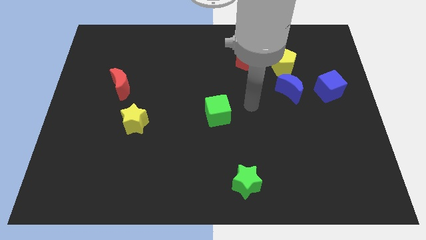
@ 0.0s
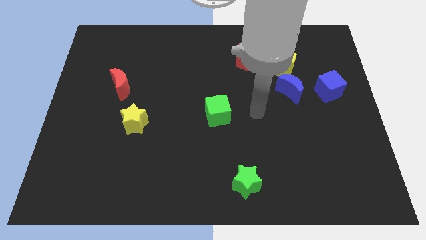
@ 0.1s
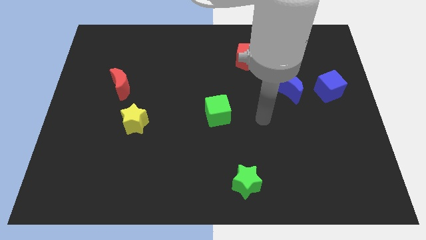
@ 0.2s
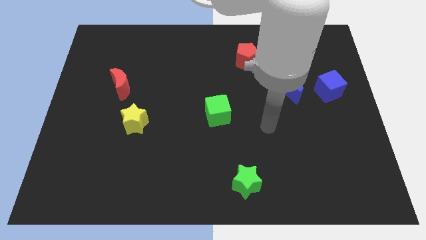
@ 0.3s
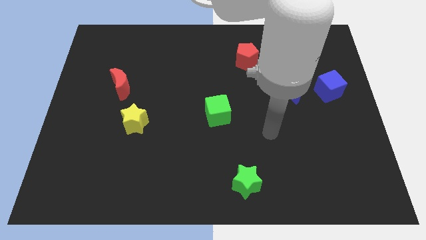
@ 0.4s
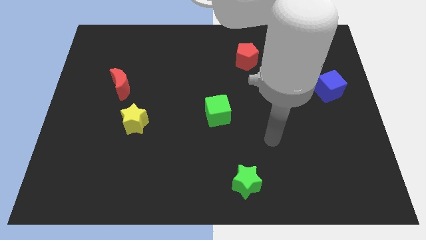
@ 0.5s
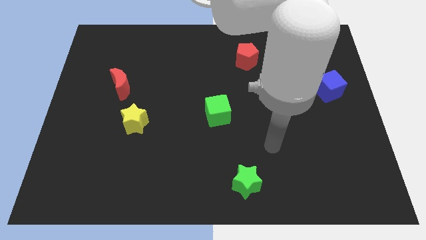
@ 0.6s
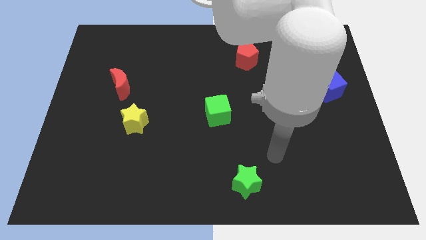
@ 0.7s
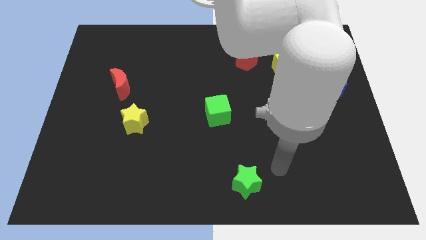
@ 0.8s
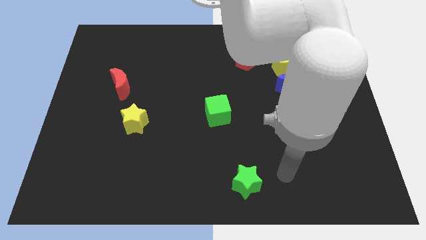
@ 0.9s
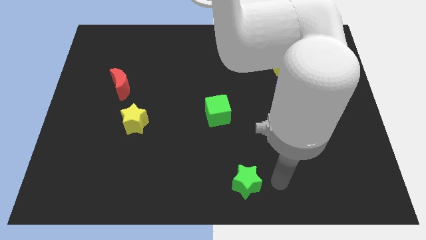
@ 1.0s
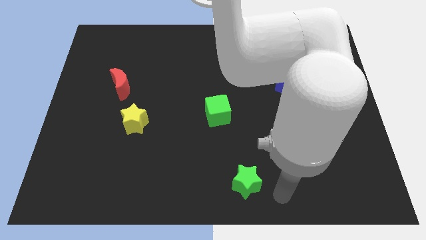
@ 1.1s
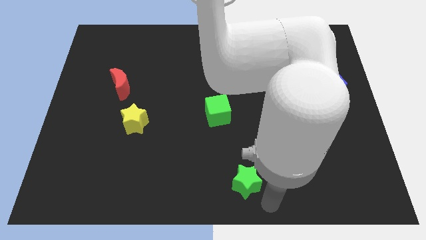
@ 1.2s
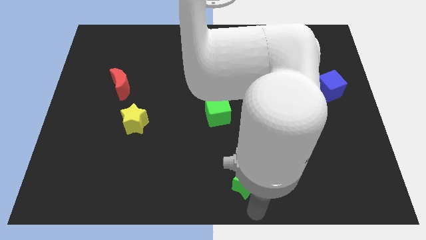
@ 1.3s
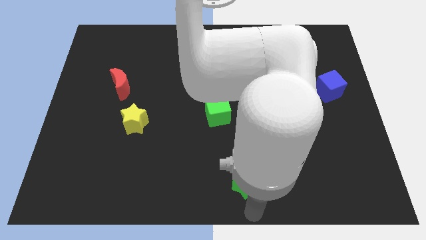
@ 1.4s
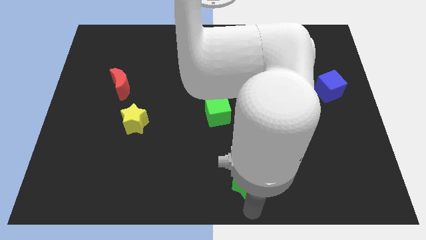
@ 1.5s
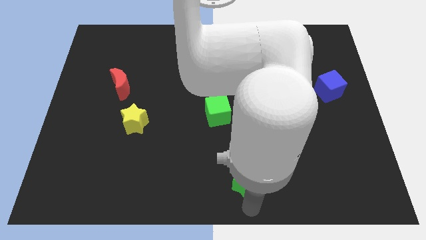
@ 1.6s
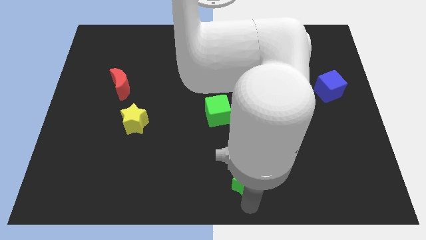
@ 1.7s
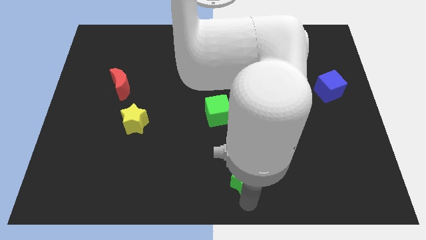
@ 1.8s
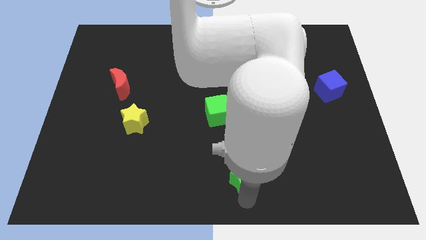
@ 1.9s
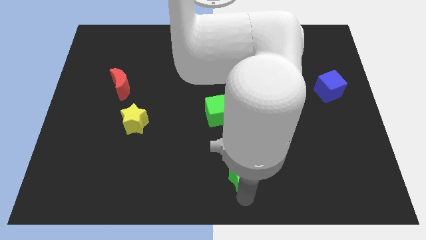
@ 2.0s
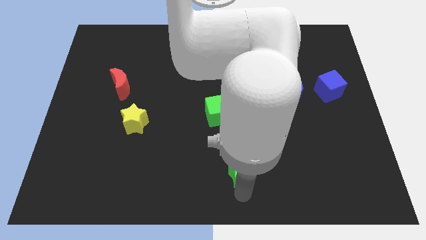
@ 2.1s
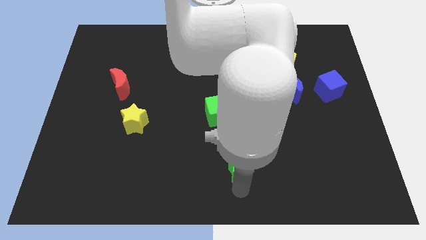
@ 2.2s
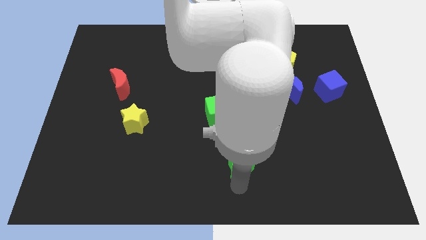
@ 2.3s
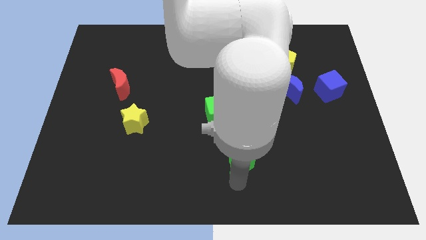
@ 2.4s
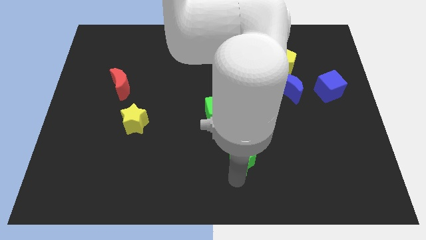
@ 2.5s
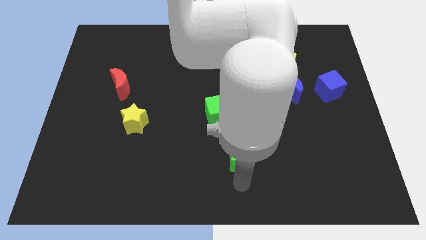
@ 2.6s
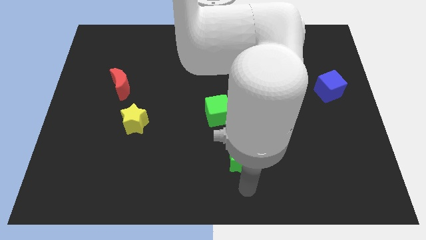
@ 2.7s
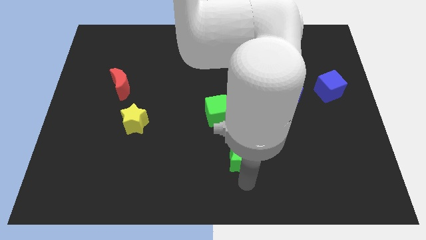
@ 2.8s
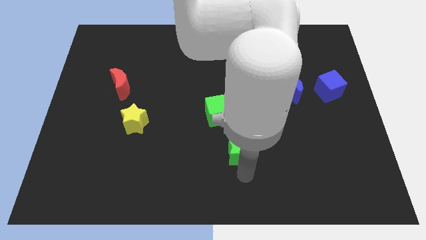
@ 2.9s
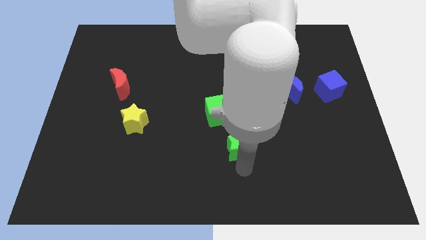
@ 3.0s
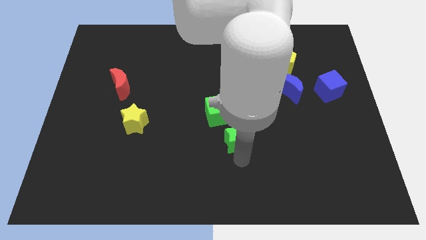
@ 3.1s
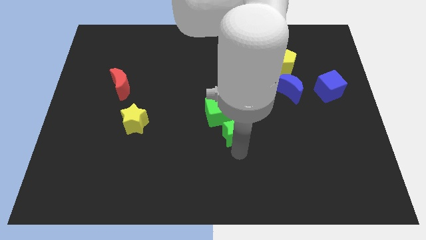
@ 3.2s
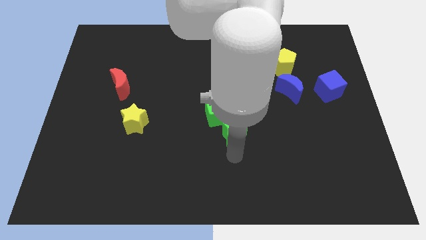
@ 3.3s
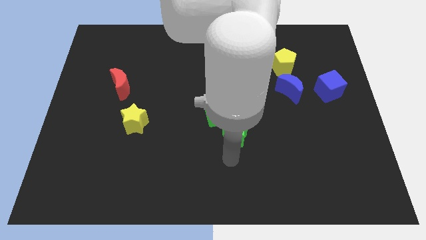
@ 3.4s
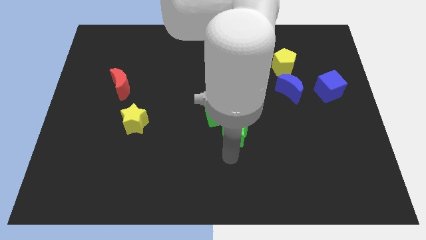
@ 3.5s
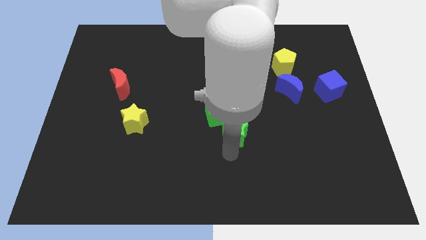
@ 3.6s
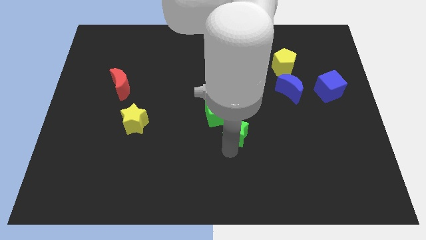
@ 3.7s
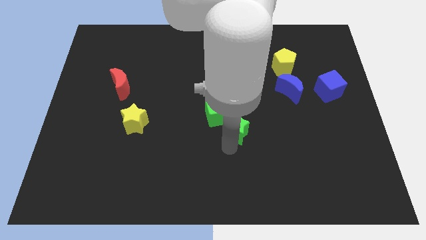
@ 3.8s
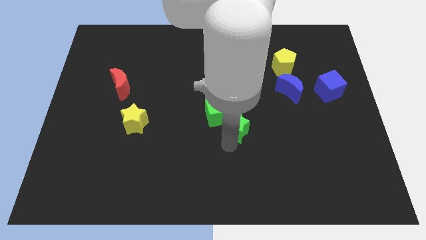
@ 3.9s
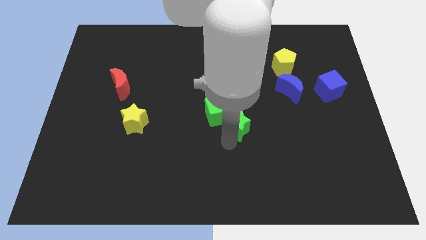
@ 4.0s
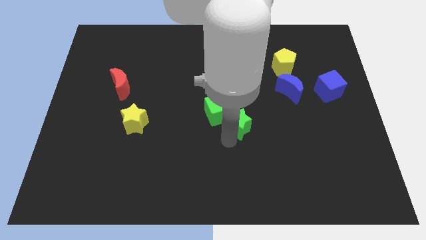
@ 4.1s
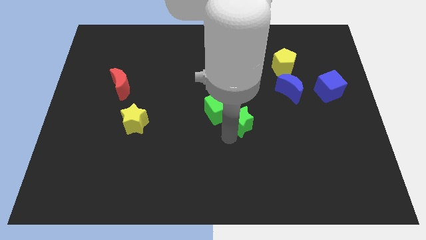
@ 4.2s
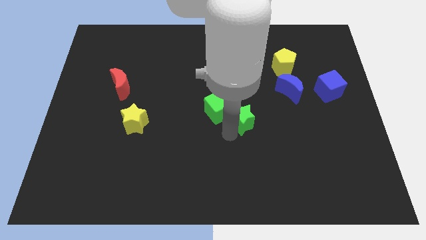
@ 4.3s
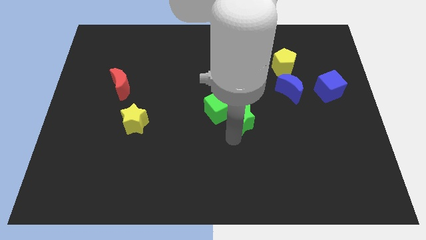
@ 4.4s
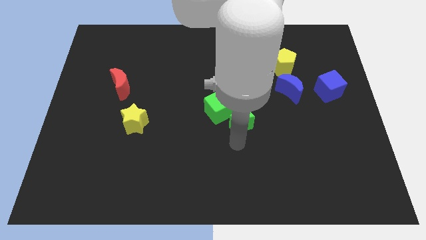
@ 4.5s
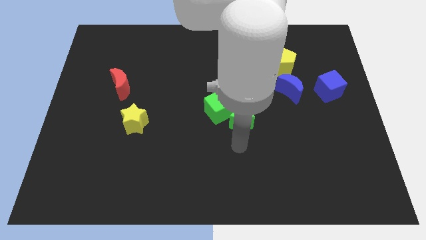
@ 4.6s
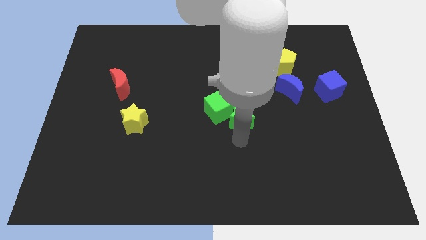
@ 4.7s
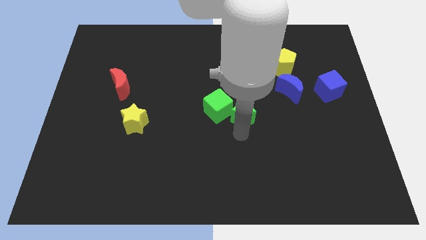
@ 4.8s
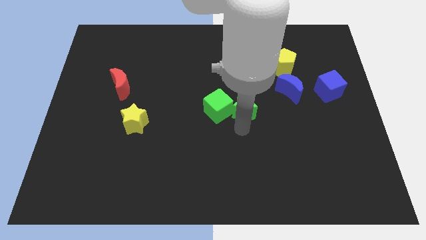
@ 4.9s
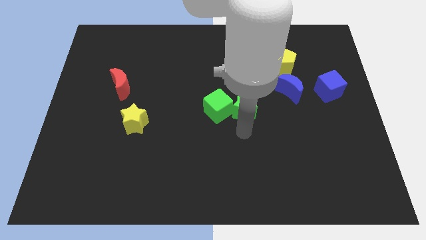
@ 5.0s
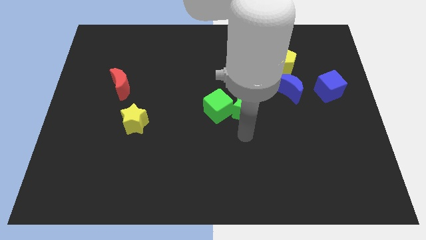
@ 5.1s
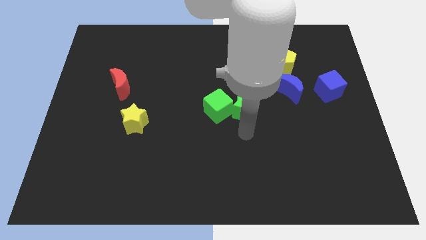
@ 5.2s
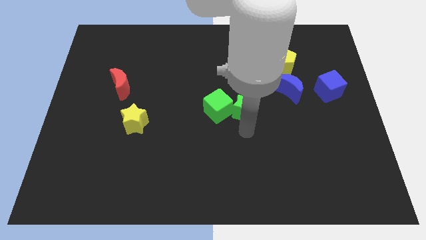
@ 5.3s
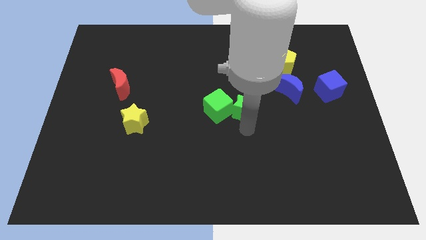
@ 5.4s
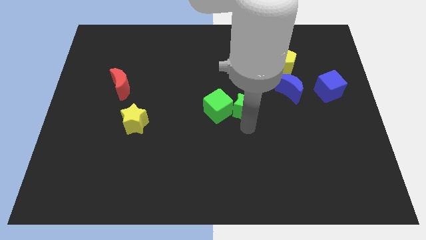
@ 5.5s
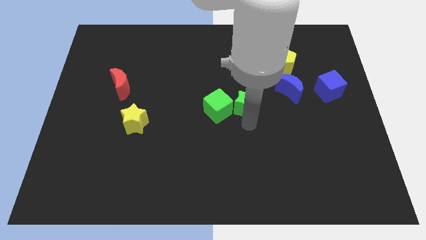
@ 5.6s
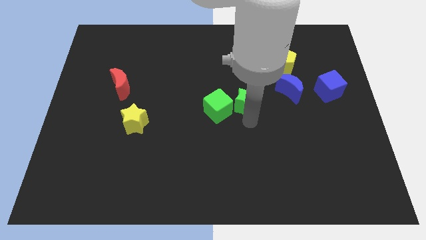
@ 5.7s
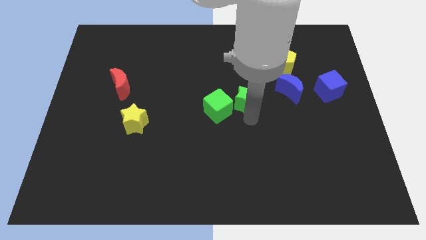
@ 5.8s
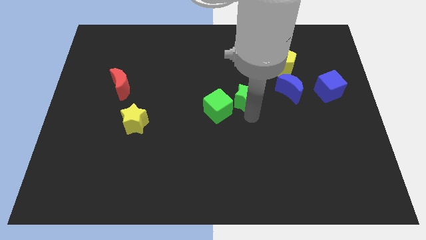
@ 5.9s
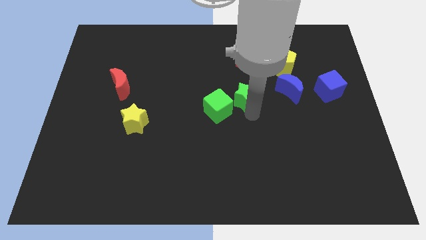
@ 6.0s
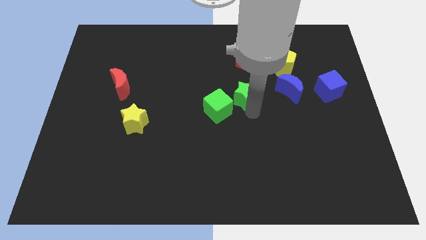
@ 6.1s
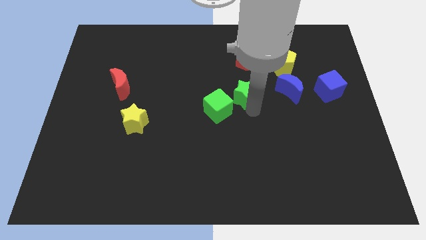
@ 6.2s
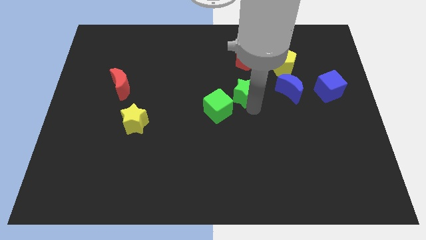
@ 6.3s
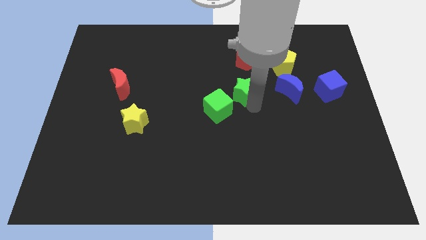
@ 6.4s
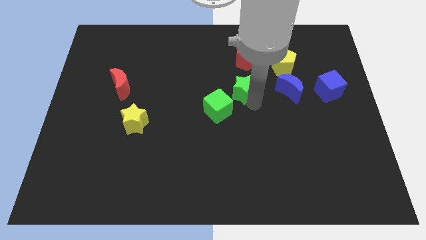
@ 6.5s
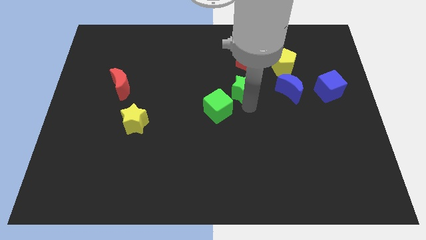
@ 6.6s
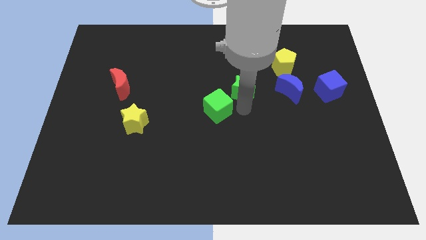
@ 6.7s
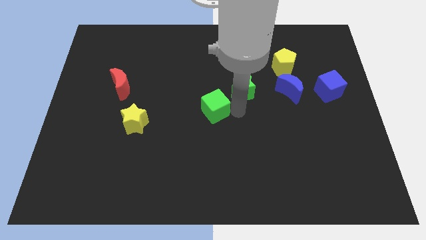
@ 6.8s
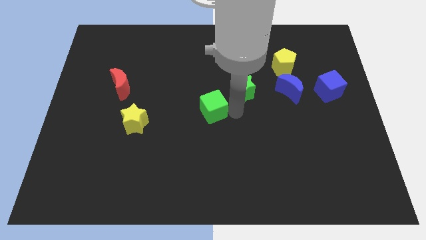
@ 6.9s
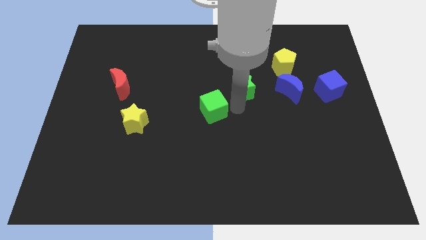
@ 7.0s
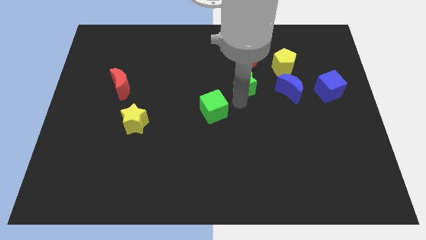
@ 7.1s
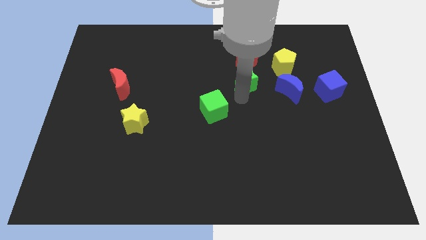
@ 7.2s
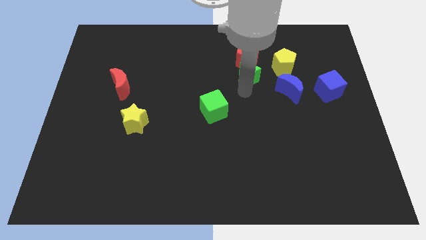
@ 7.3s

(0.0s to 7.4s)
put the green star to the red pentagon
